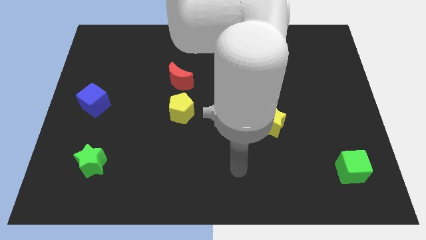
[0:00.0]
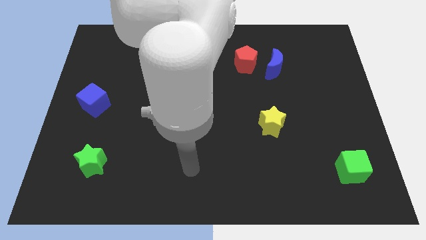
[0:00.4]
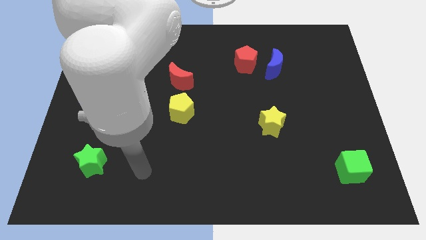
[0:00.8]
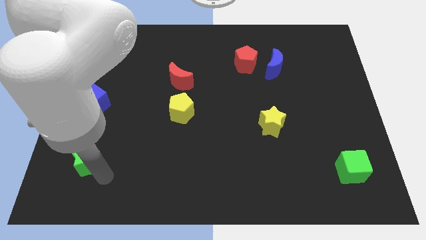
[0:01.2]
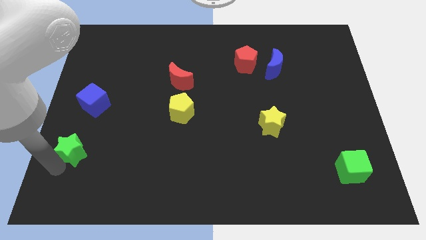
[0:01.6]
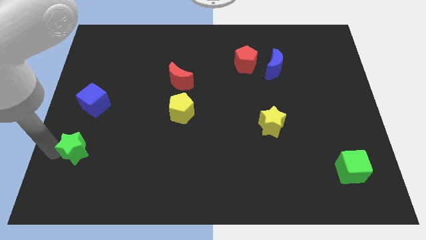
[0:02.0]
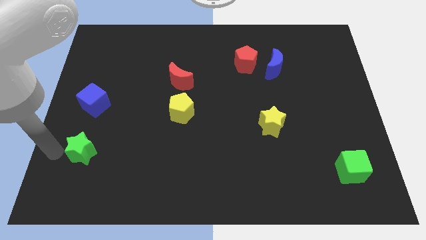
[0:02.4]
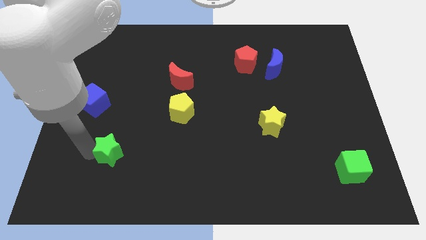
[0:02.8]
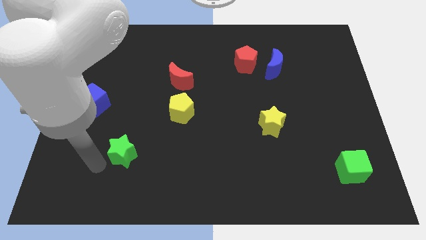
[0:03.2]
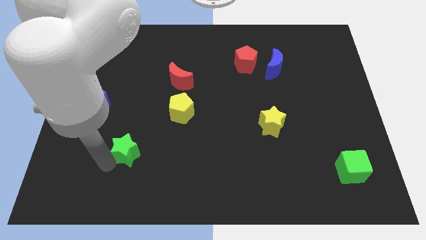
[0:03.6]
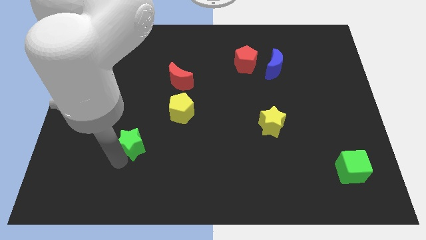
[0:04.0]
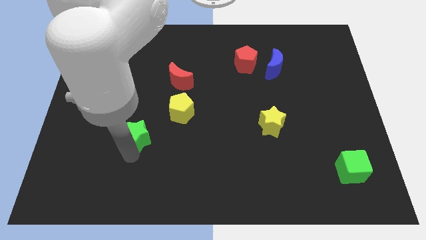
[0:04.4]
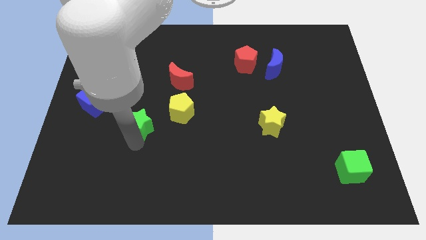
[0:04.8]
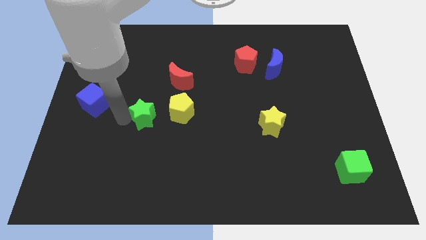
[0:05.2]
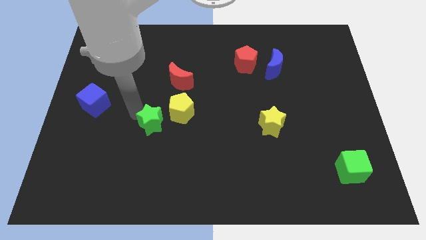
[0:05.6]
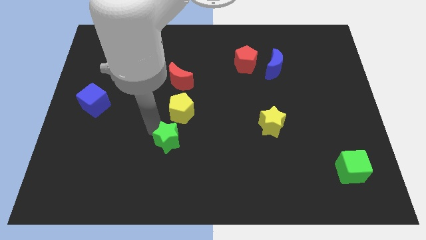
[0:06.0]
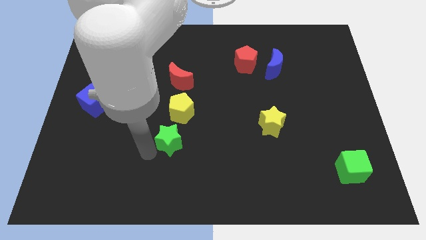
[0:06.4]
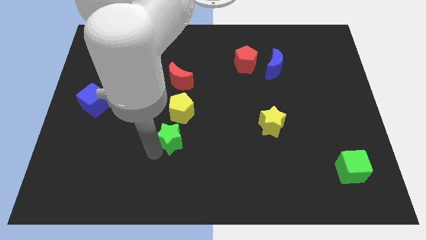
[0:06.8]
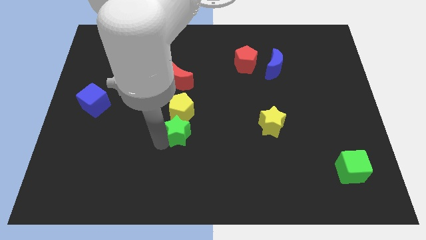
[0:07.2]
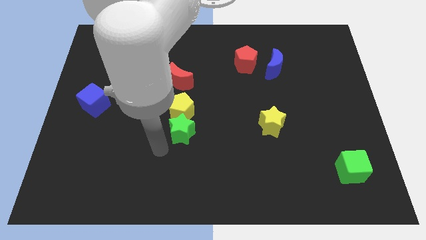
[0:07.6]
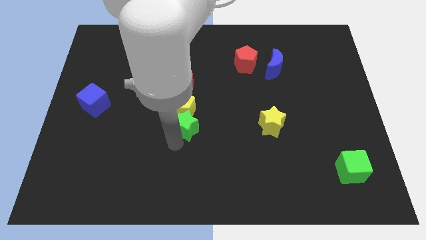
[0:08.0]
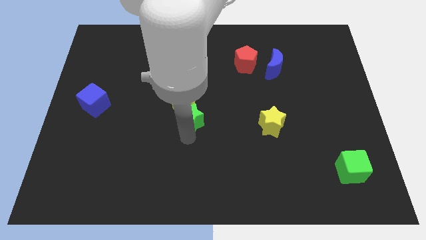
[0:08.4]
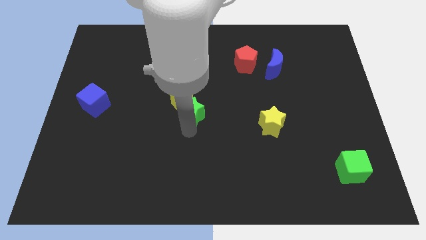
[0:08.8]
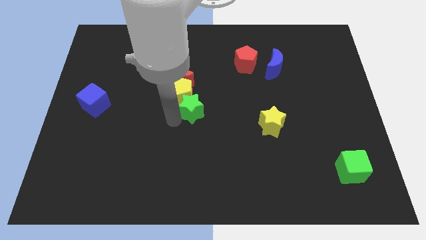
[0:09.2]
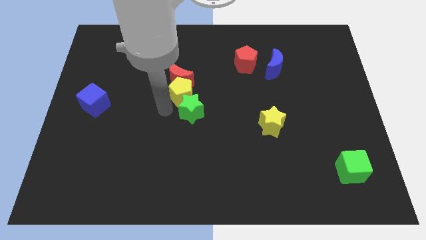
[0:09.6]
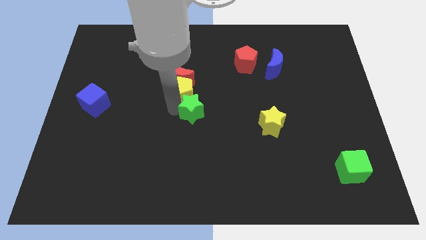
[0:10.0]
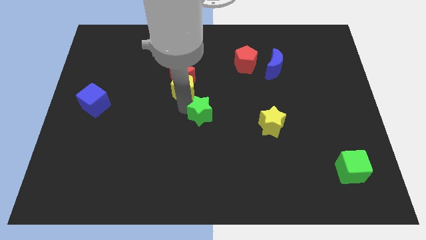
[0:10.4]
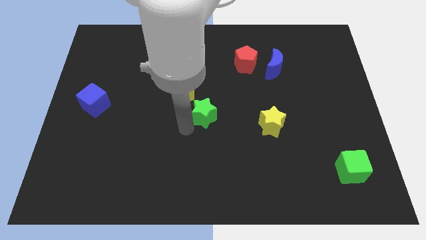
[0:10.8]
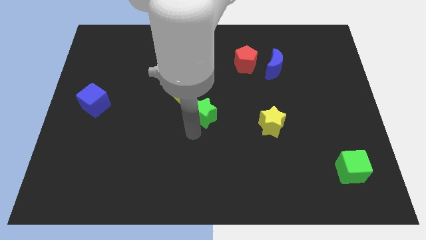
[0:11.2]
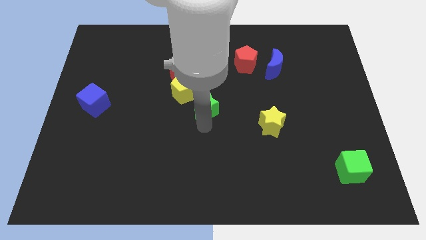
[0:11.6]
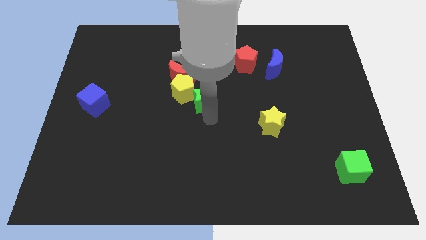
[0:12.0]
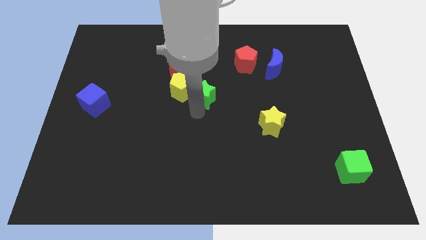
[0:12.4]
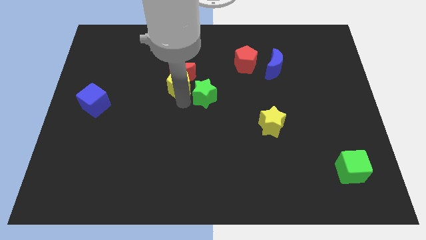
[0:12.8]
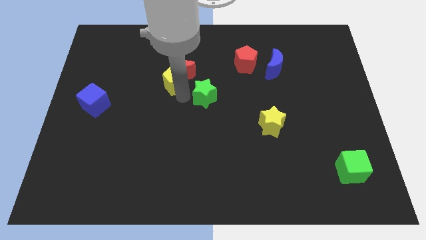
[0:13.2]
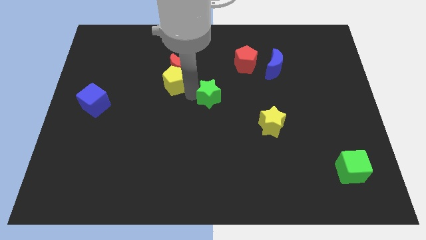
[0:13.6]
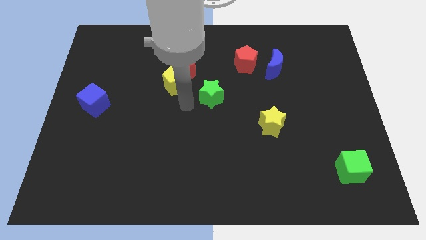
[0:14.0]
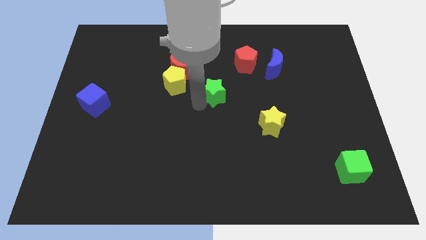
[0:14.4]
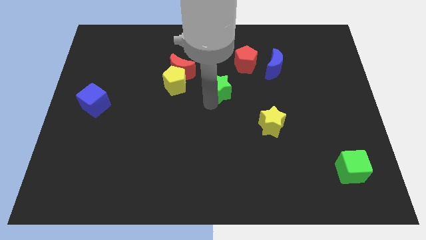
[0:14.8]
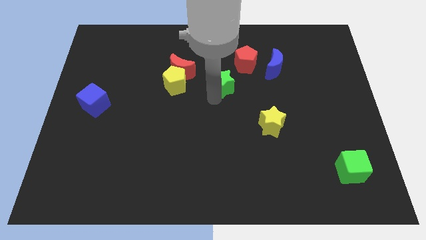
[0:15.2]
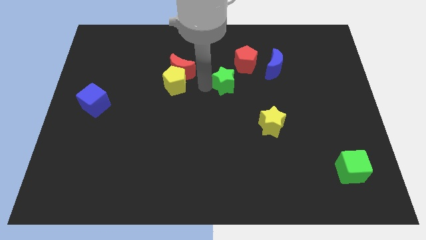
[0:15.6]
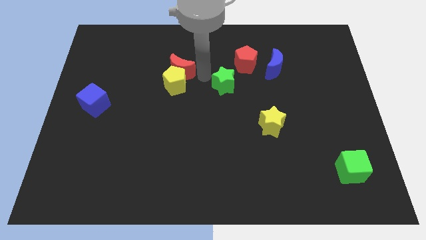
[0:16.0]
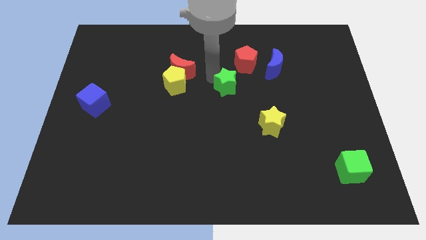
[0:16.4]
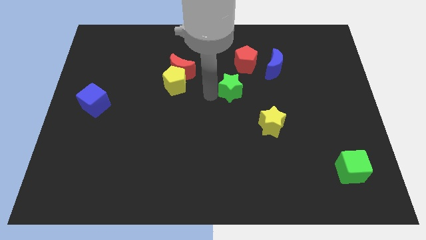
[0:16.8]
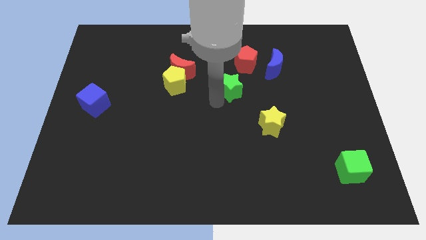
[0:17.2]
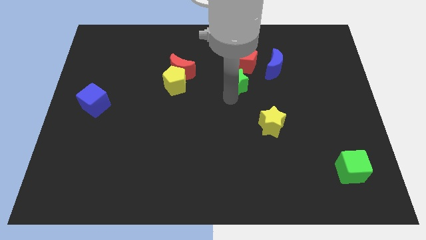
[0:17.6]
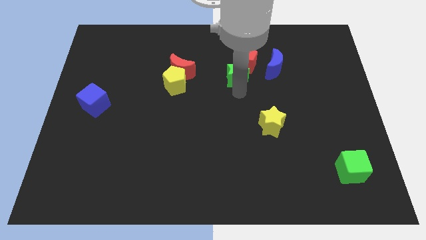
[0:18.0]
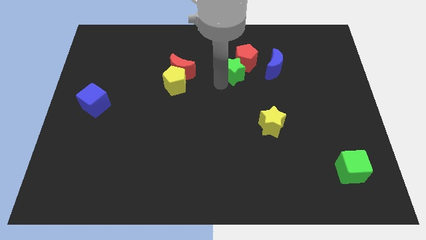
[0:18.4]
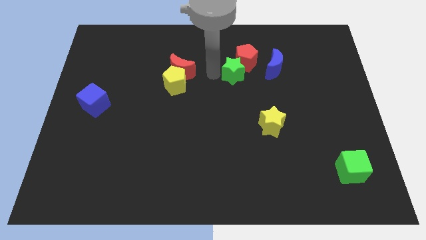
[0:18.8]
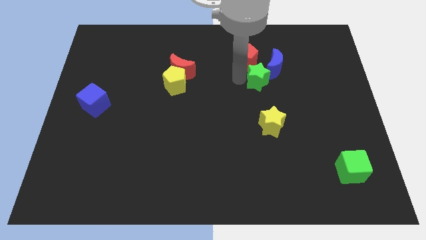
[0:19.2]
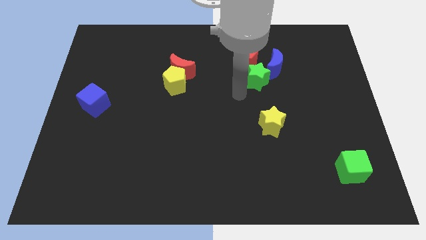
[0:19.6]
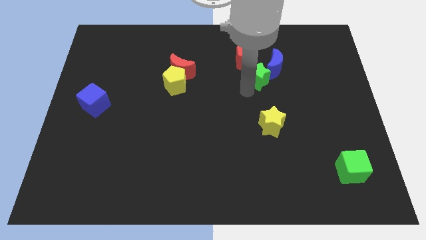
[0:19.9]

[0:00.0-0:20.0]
move the green star towards the blue moon

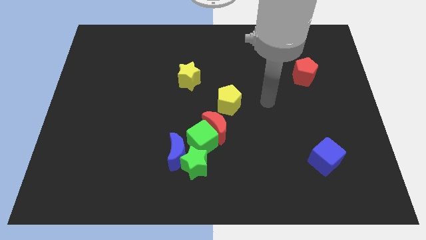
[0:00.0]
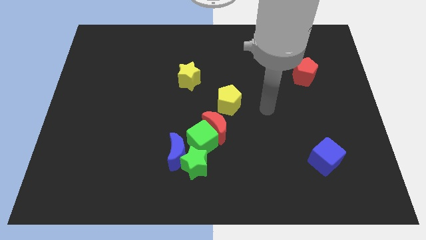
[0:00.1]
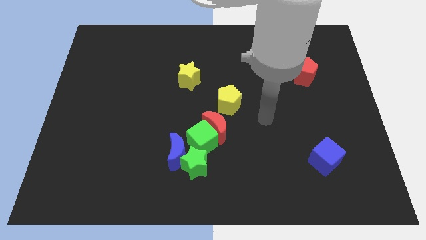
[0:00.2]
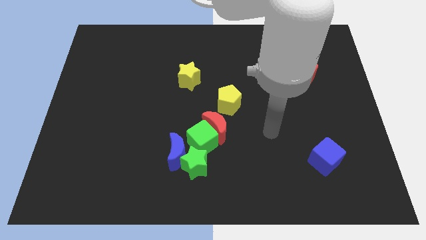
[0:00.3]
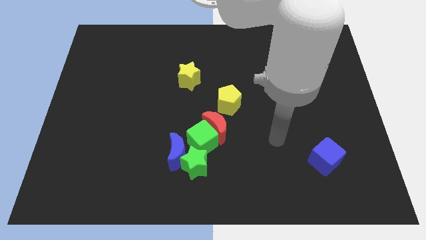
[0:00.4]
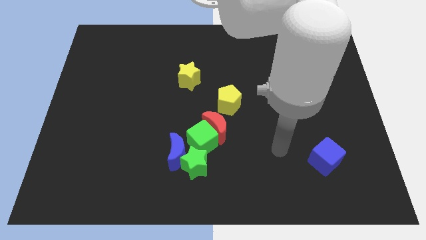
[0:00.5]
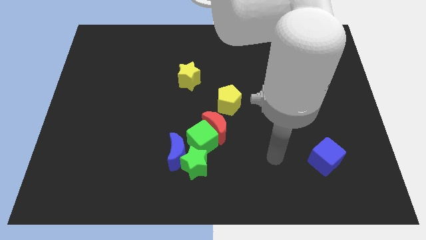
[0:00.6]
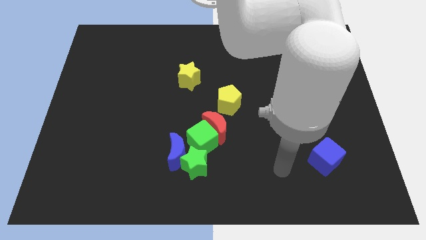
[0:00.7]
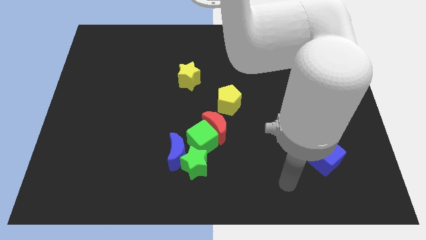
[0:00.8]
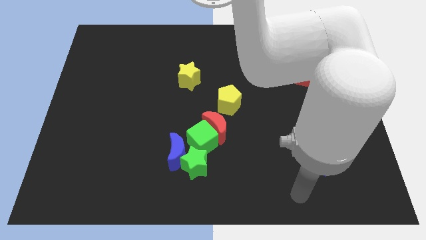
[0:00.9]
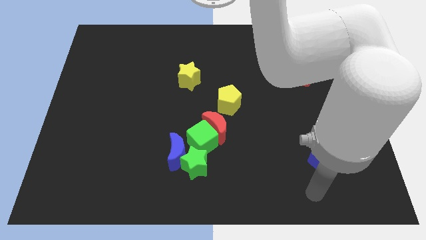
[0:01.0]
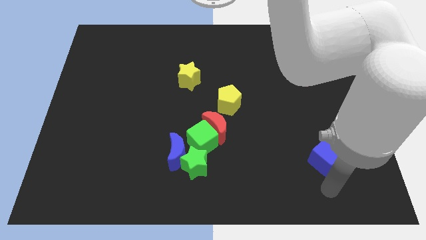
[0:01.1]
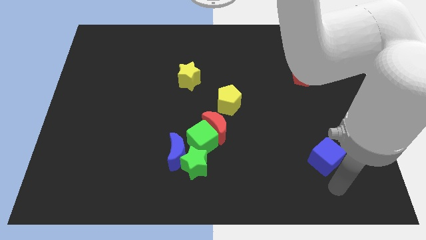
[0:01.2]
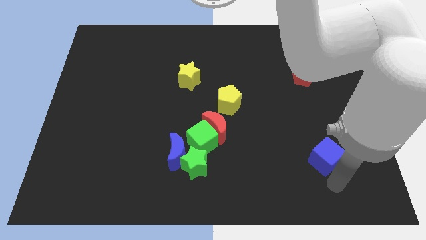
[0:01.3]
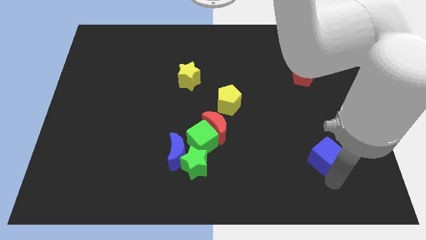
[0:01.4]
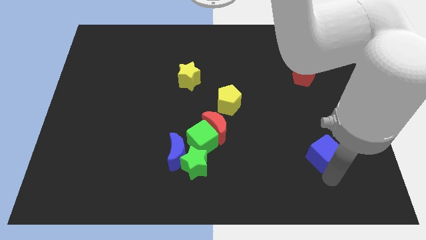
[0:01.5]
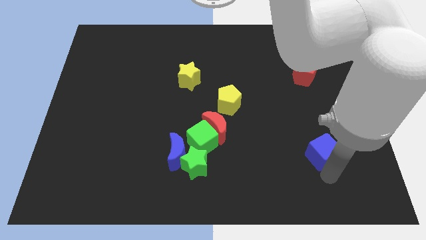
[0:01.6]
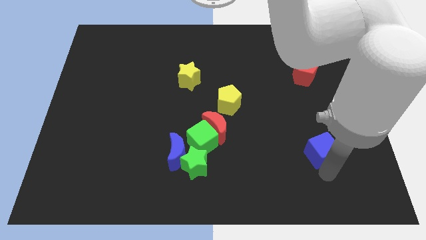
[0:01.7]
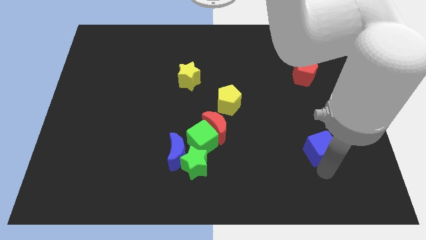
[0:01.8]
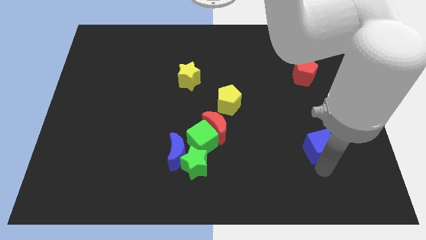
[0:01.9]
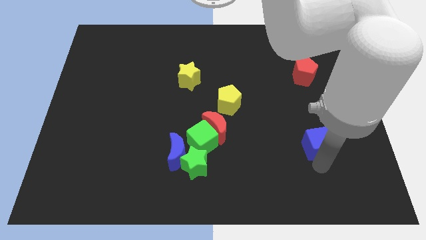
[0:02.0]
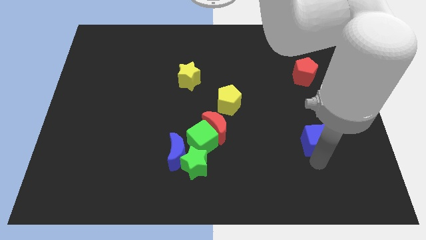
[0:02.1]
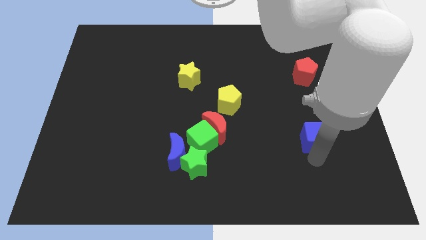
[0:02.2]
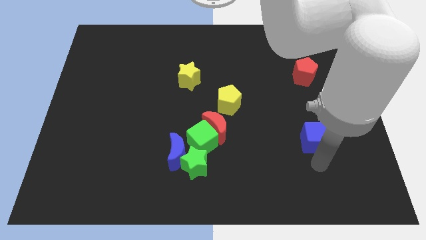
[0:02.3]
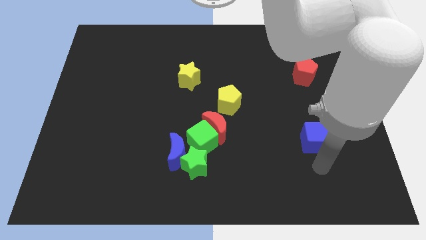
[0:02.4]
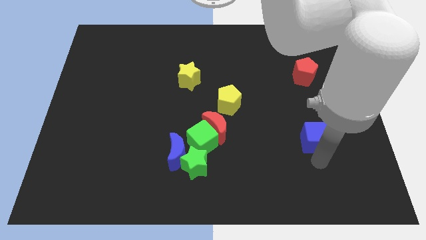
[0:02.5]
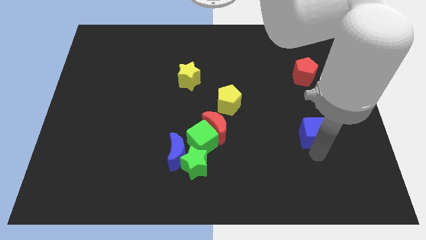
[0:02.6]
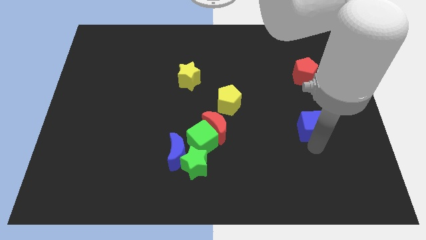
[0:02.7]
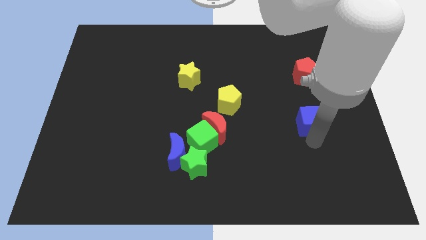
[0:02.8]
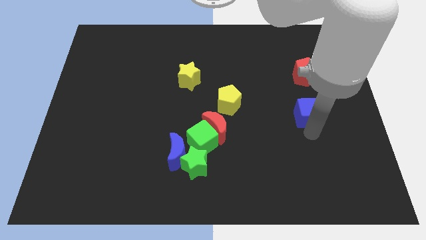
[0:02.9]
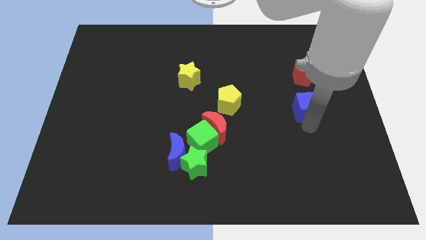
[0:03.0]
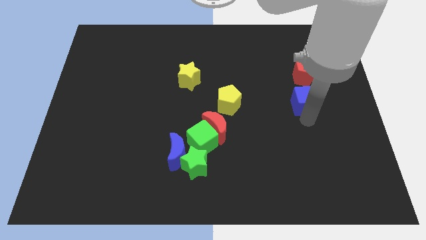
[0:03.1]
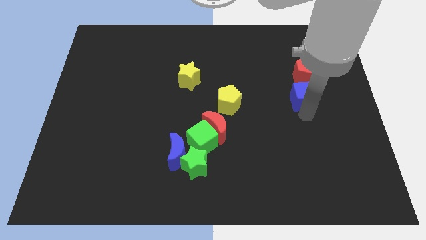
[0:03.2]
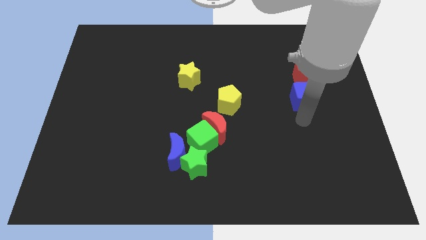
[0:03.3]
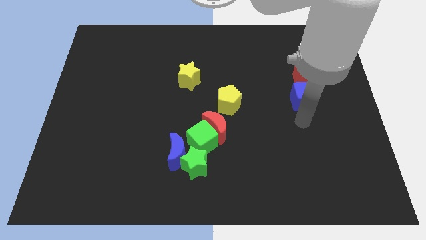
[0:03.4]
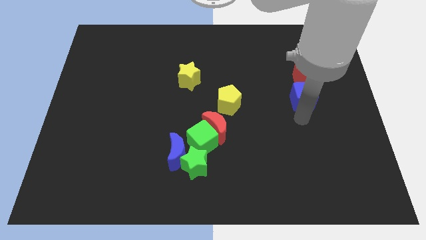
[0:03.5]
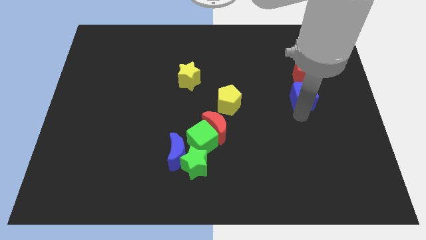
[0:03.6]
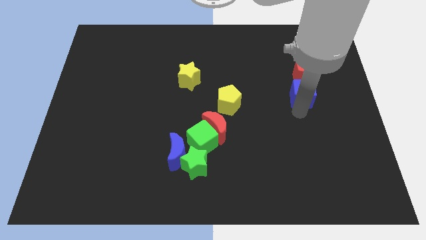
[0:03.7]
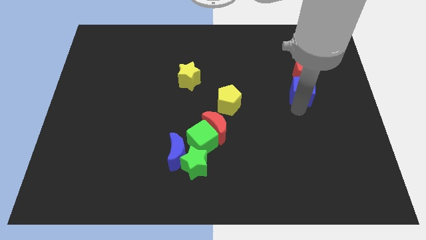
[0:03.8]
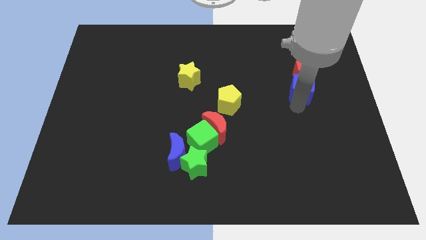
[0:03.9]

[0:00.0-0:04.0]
slide the blue cube to the red pentagon
